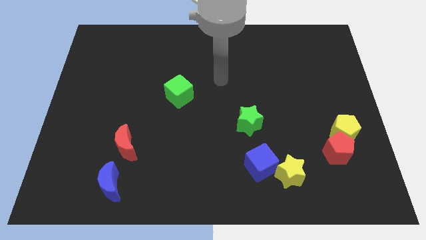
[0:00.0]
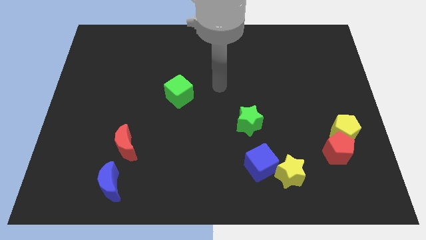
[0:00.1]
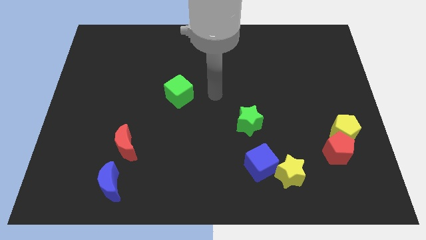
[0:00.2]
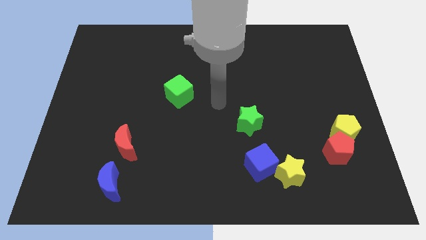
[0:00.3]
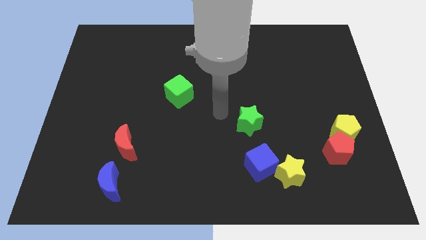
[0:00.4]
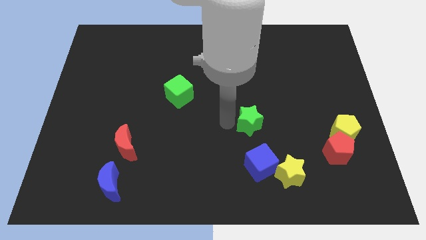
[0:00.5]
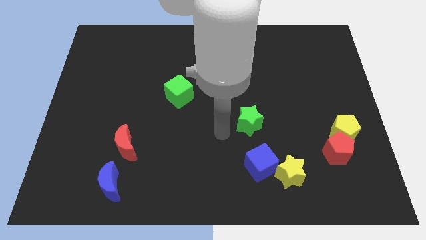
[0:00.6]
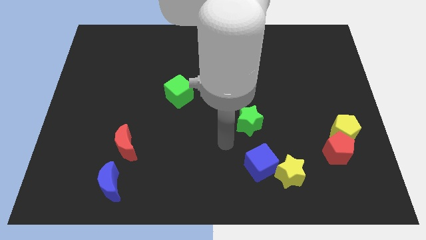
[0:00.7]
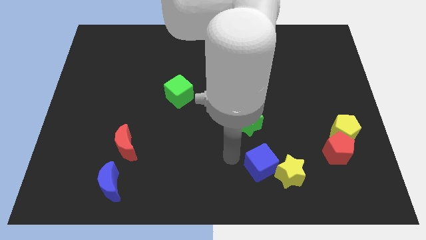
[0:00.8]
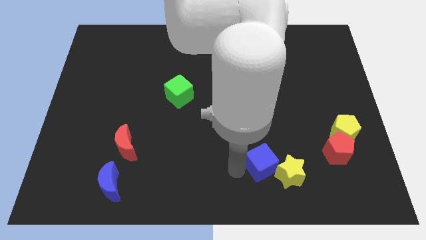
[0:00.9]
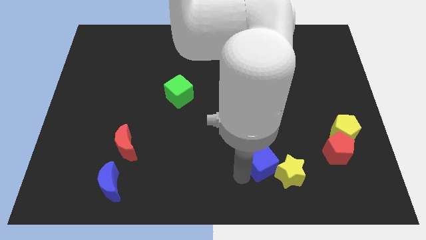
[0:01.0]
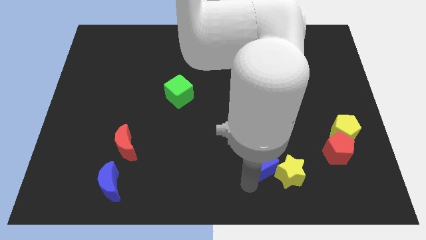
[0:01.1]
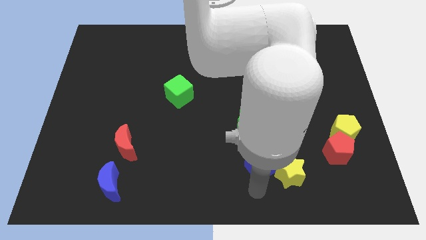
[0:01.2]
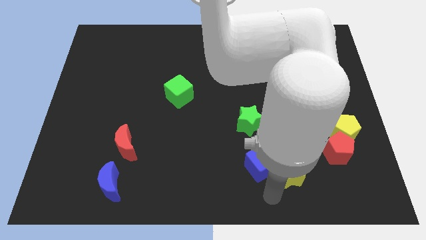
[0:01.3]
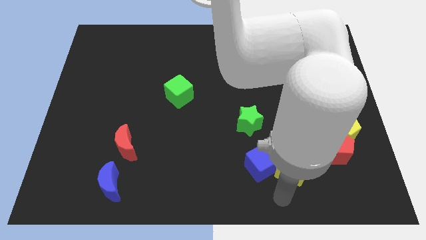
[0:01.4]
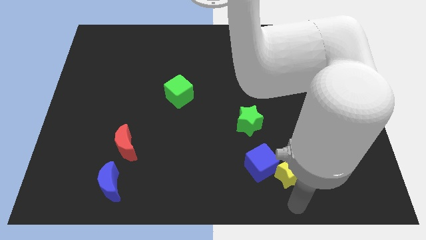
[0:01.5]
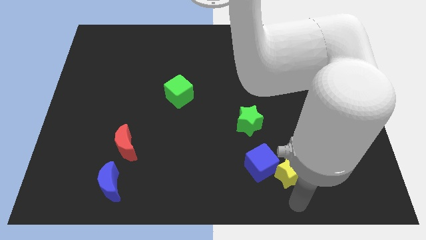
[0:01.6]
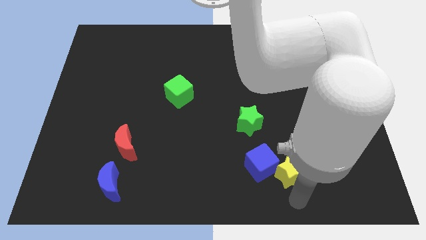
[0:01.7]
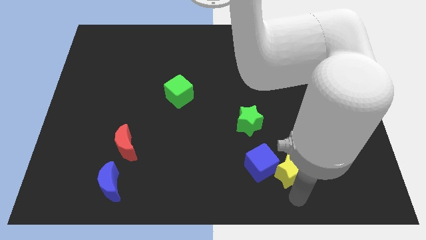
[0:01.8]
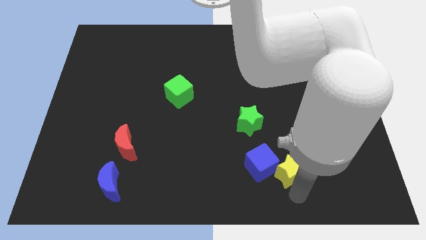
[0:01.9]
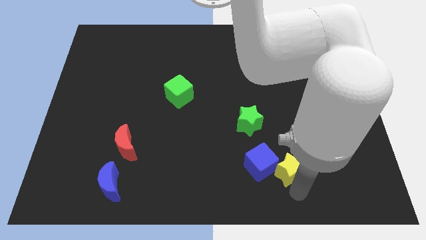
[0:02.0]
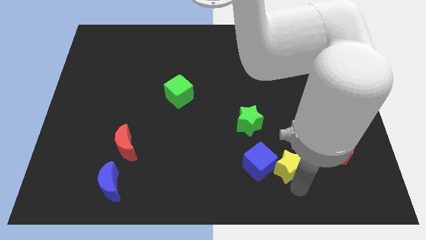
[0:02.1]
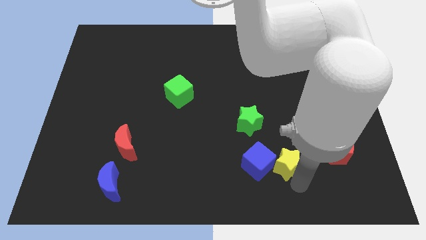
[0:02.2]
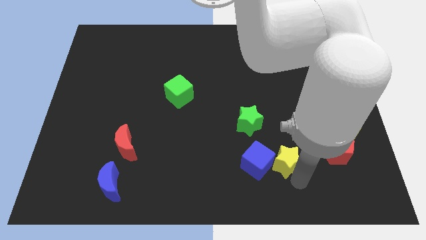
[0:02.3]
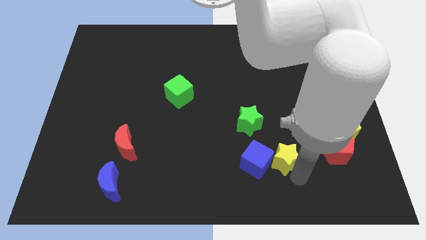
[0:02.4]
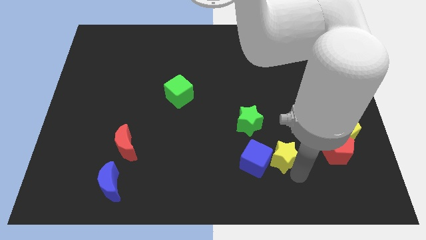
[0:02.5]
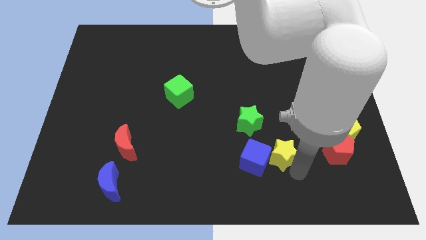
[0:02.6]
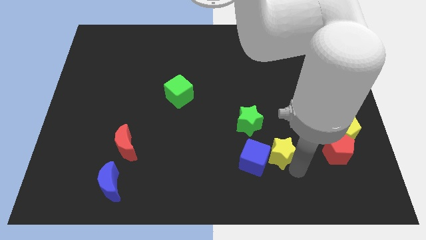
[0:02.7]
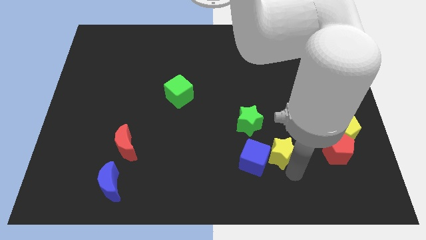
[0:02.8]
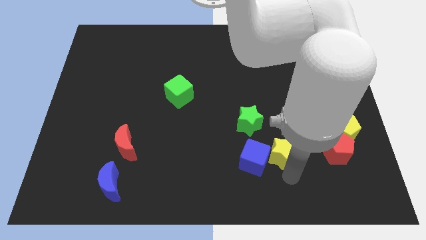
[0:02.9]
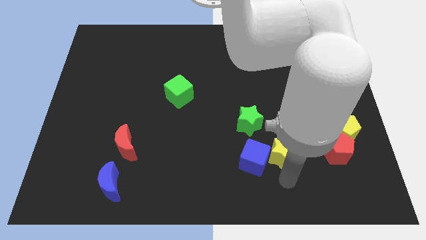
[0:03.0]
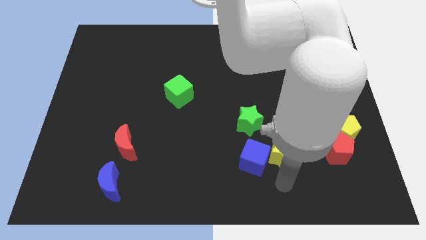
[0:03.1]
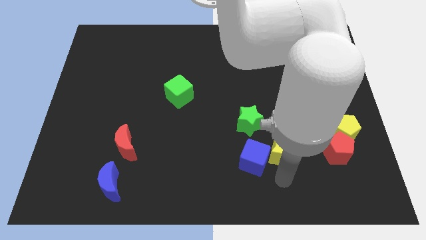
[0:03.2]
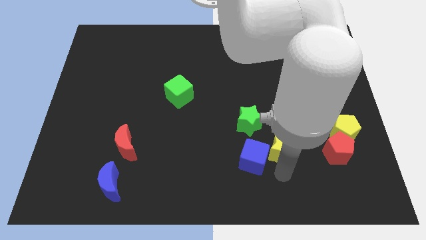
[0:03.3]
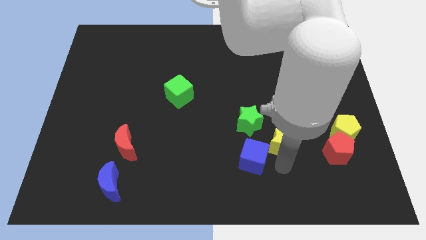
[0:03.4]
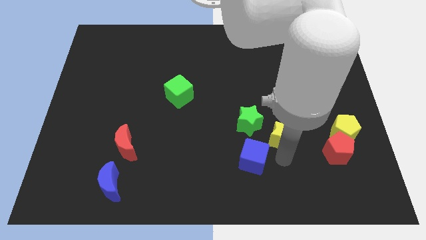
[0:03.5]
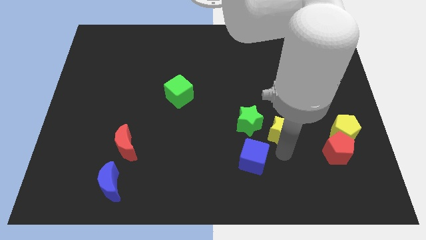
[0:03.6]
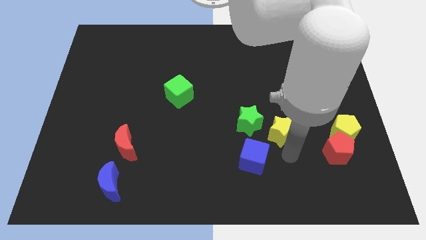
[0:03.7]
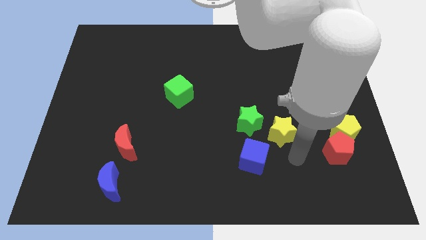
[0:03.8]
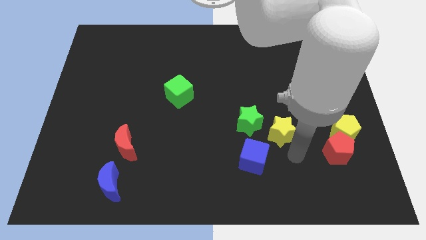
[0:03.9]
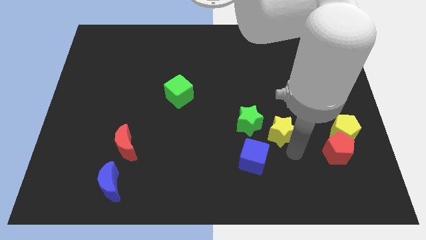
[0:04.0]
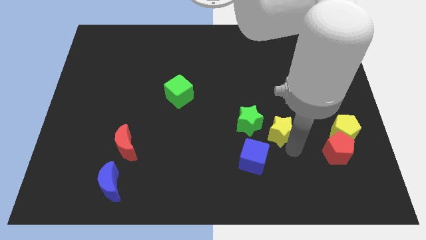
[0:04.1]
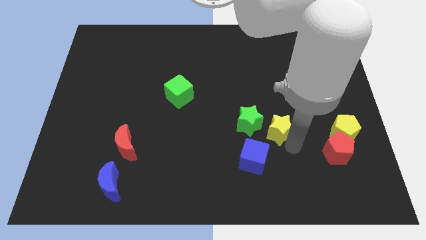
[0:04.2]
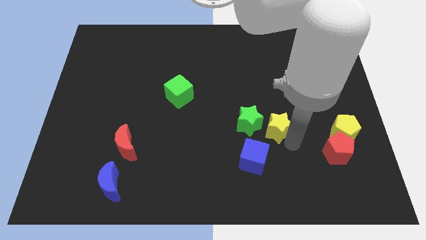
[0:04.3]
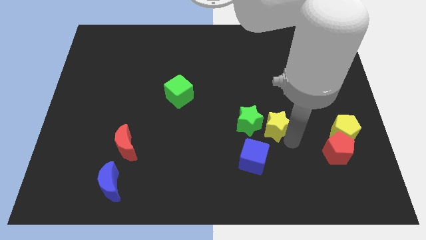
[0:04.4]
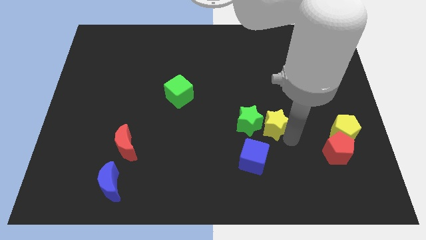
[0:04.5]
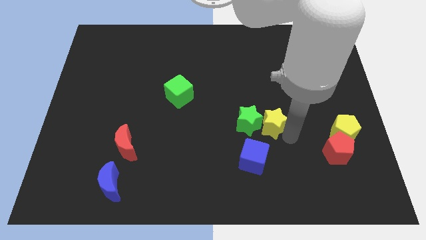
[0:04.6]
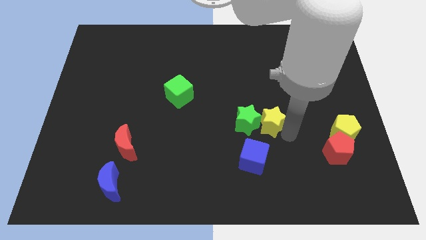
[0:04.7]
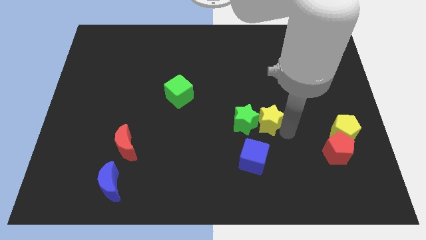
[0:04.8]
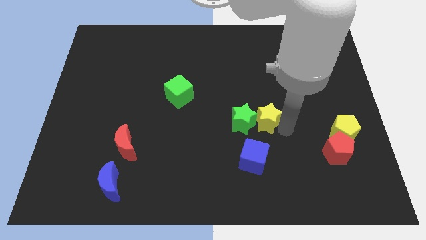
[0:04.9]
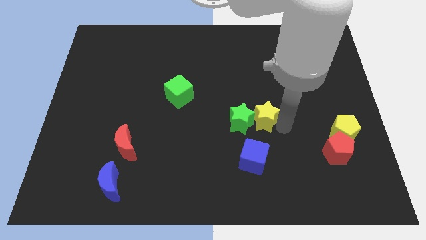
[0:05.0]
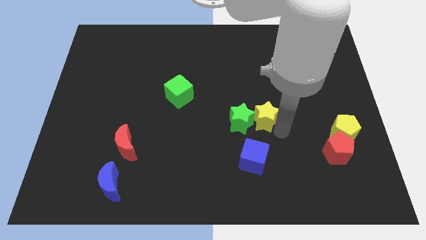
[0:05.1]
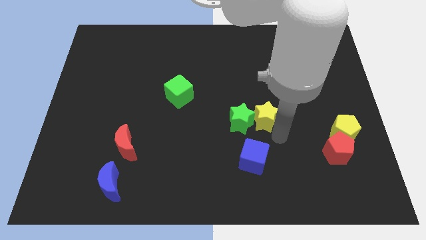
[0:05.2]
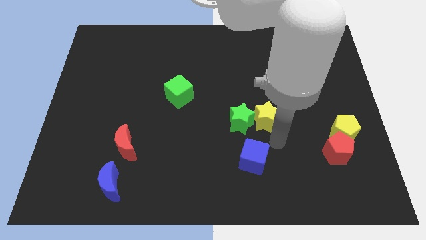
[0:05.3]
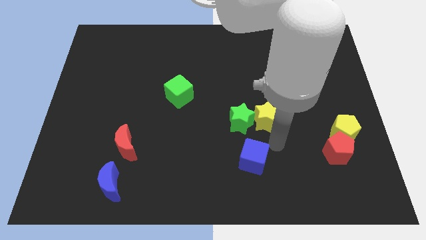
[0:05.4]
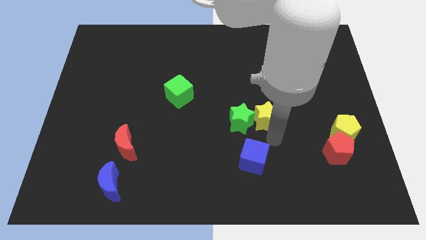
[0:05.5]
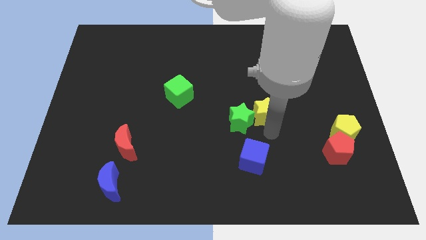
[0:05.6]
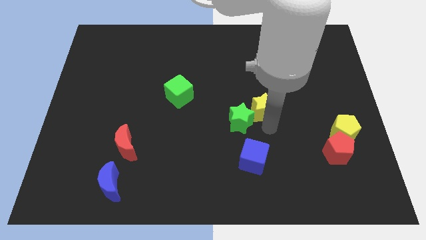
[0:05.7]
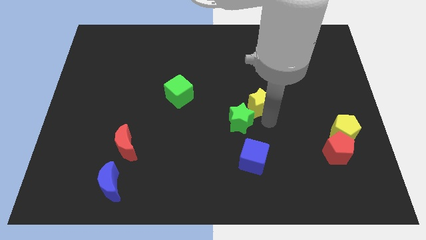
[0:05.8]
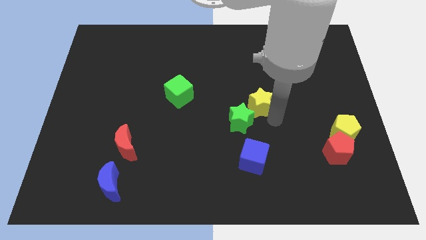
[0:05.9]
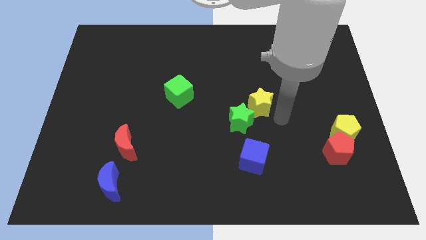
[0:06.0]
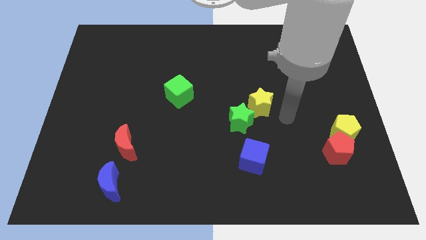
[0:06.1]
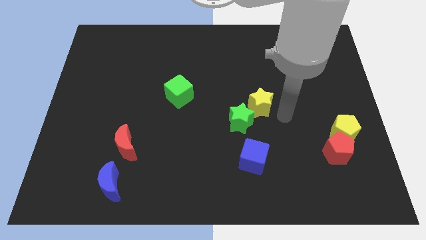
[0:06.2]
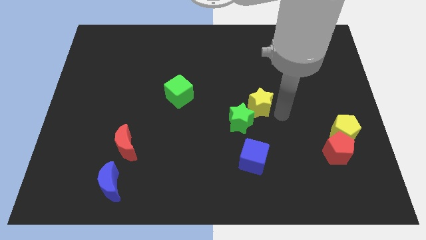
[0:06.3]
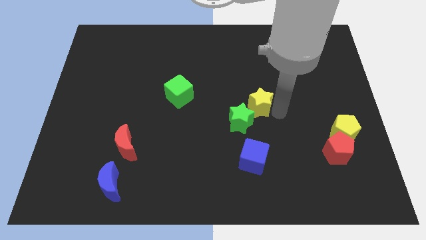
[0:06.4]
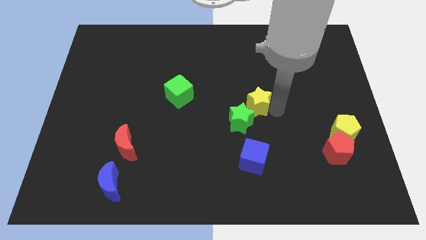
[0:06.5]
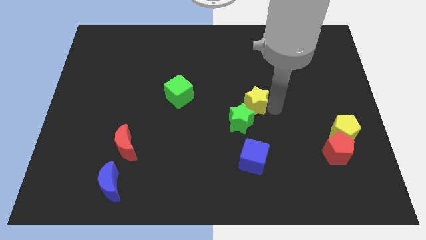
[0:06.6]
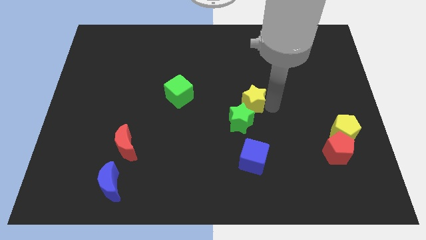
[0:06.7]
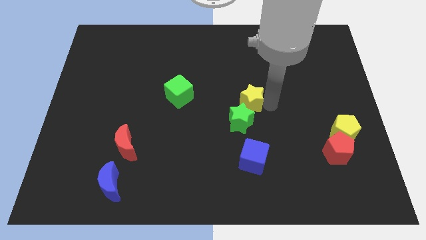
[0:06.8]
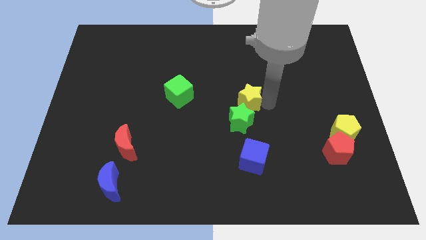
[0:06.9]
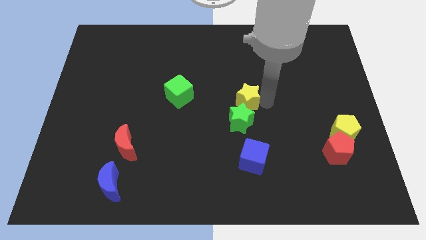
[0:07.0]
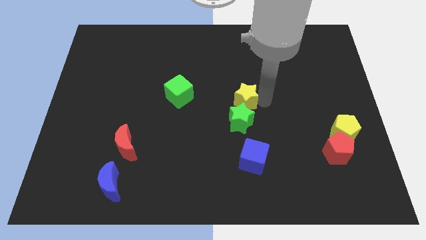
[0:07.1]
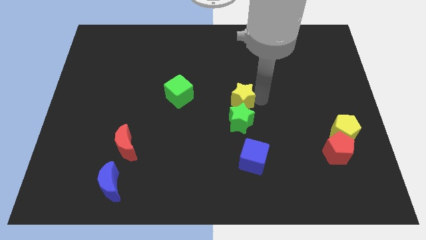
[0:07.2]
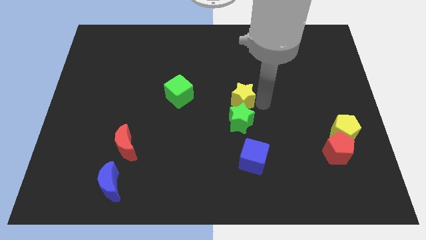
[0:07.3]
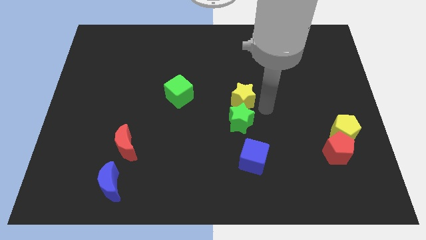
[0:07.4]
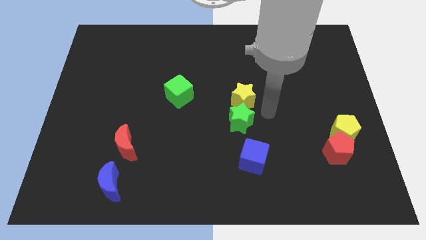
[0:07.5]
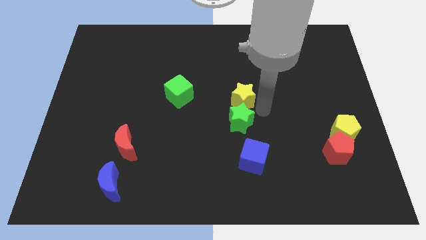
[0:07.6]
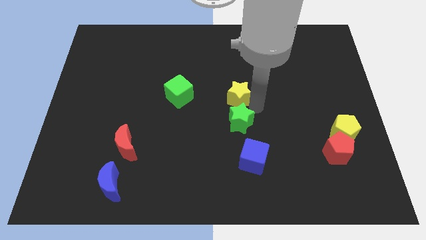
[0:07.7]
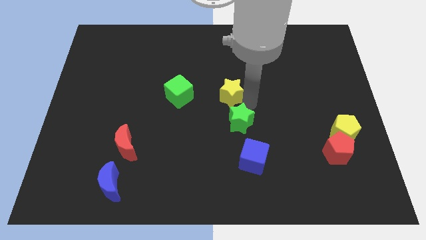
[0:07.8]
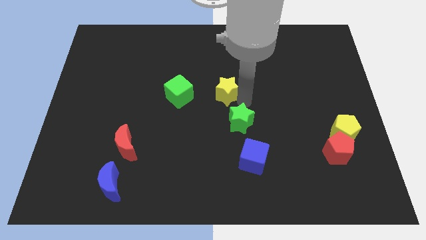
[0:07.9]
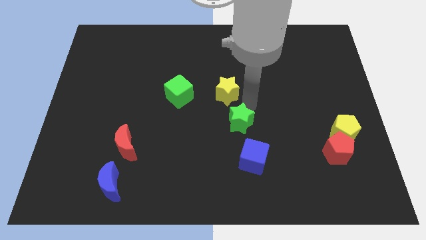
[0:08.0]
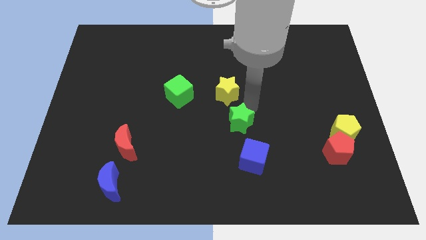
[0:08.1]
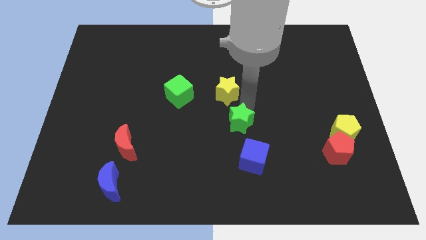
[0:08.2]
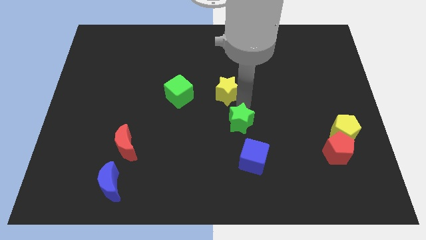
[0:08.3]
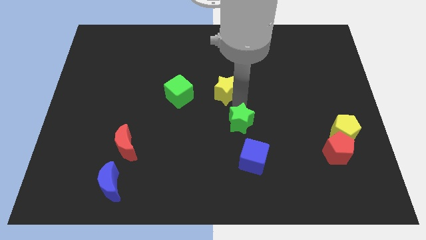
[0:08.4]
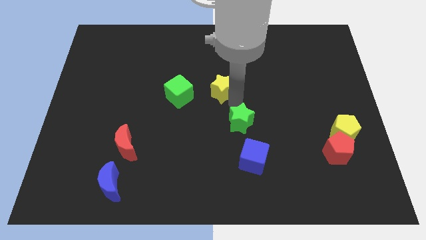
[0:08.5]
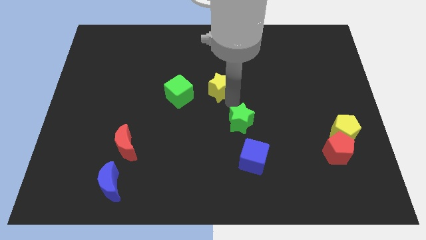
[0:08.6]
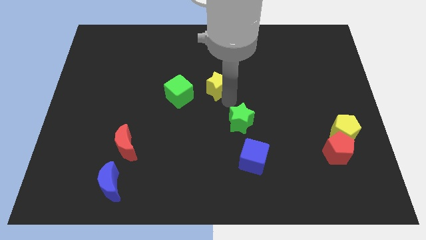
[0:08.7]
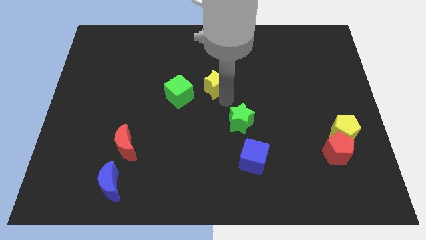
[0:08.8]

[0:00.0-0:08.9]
move the yellow star to the top right of the green cube
